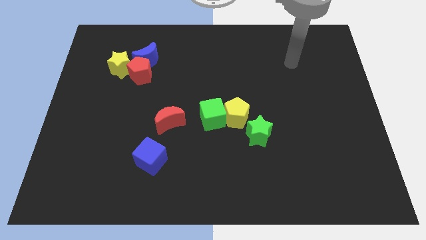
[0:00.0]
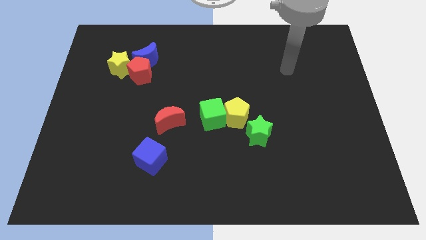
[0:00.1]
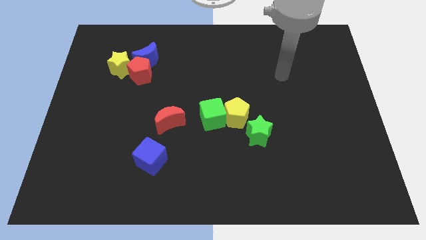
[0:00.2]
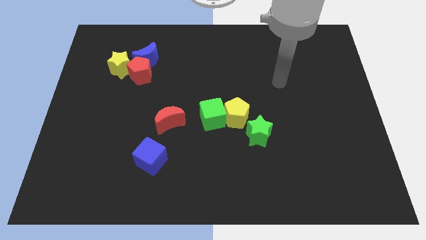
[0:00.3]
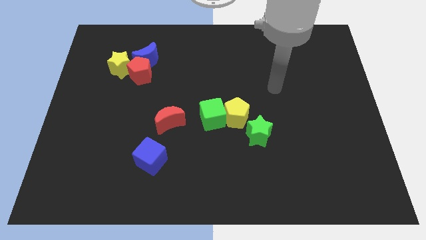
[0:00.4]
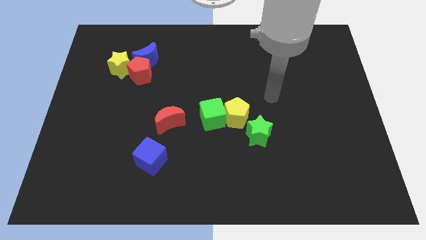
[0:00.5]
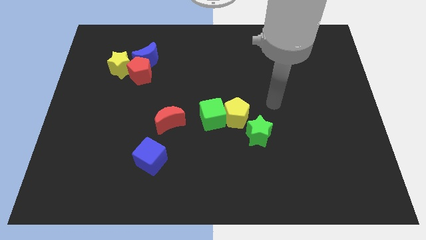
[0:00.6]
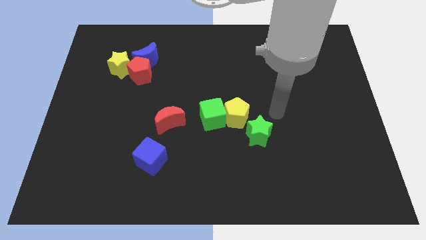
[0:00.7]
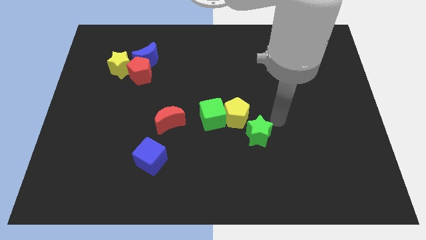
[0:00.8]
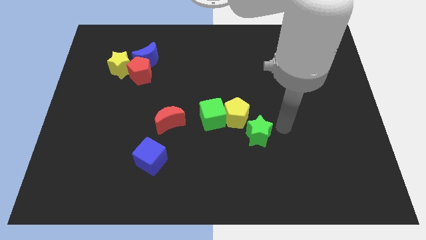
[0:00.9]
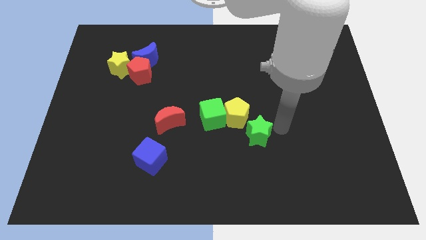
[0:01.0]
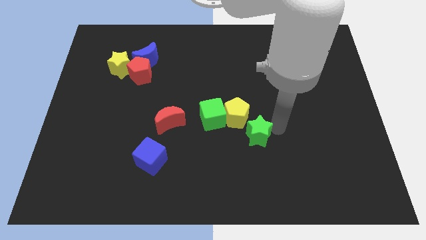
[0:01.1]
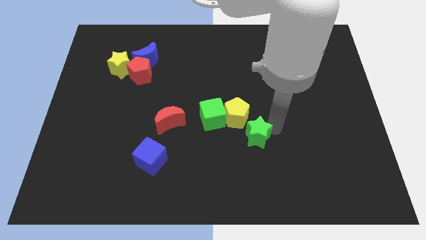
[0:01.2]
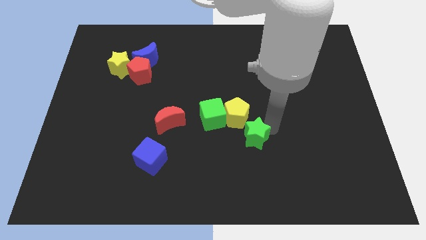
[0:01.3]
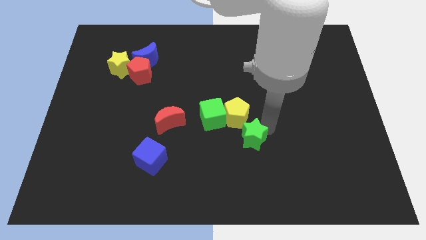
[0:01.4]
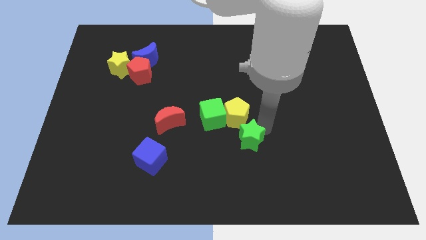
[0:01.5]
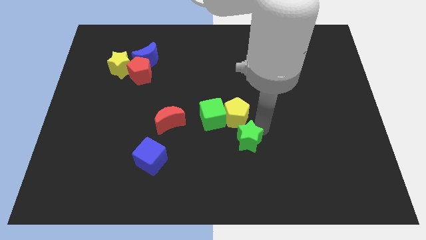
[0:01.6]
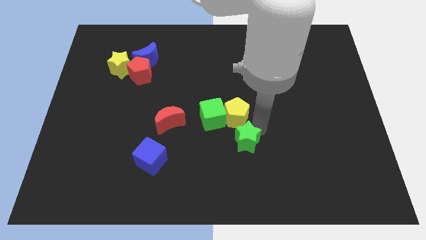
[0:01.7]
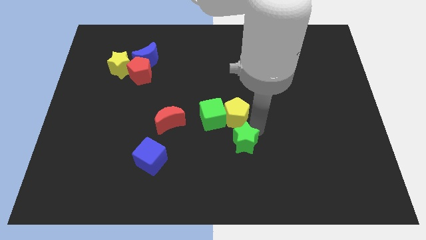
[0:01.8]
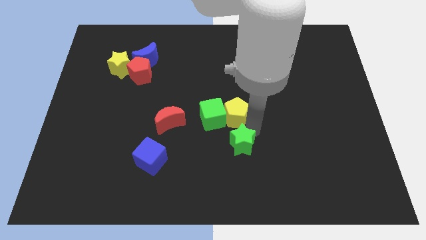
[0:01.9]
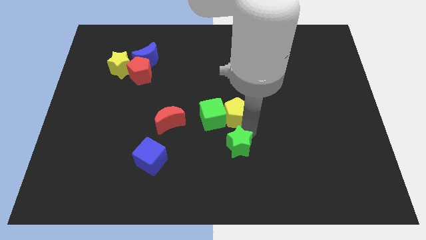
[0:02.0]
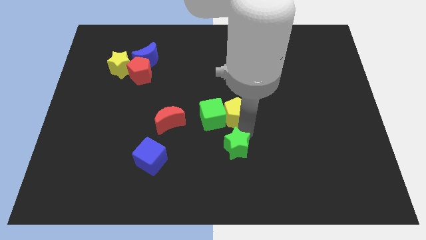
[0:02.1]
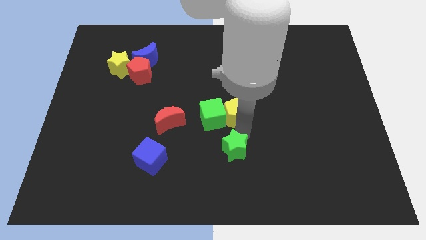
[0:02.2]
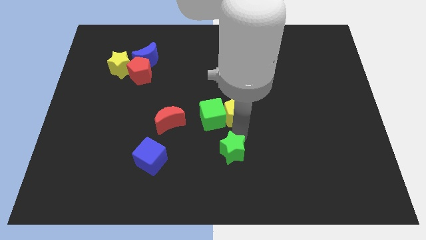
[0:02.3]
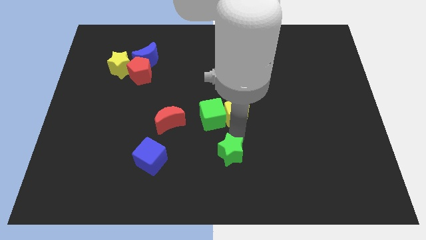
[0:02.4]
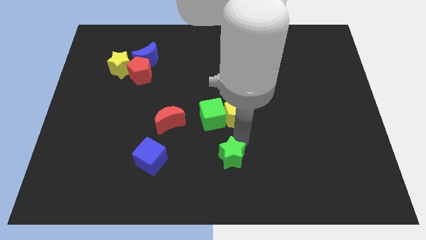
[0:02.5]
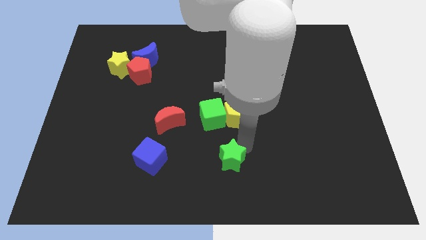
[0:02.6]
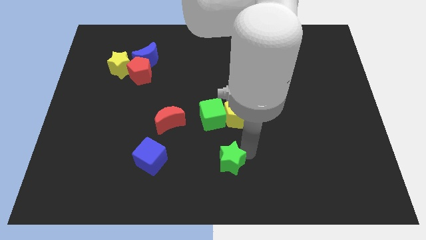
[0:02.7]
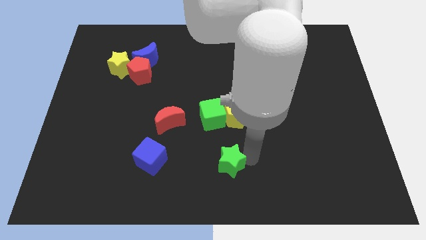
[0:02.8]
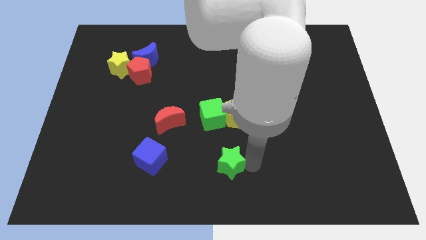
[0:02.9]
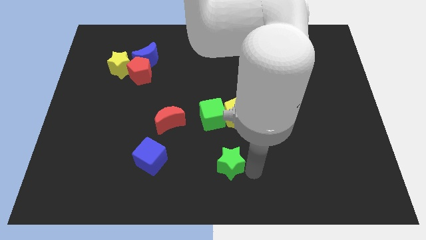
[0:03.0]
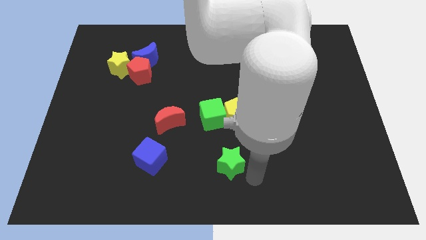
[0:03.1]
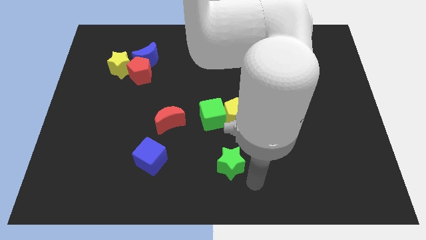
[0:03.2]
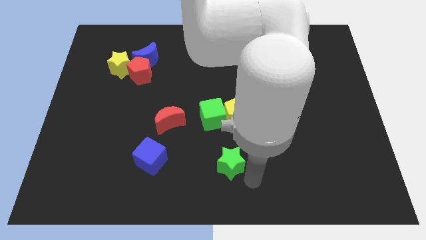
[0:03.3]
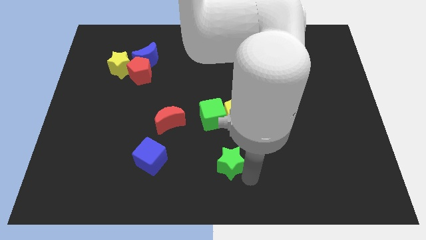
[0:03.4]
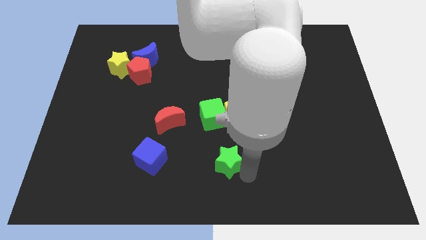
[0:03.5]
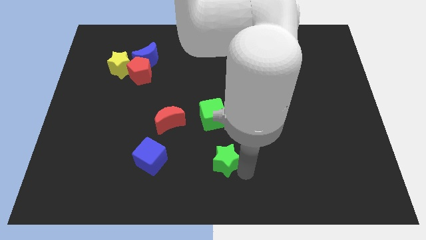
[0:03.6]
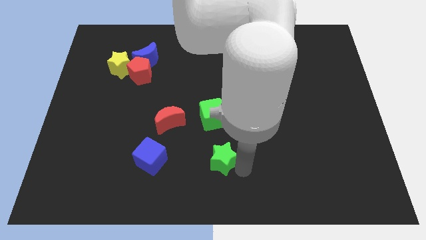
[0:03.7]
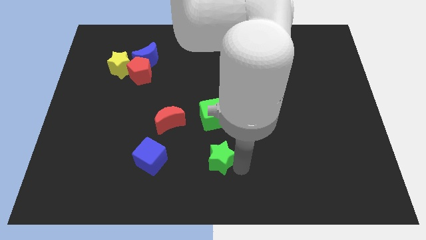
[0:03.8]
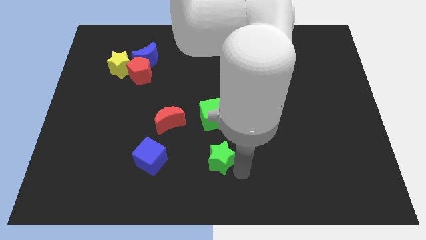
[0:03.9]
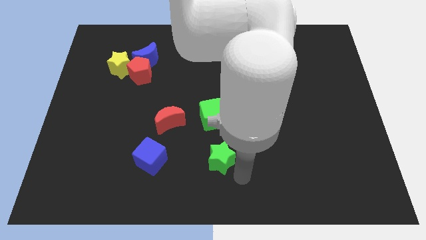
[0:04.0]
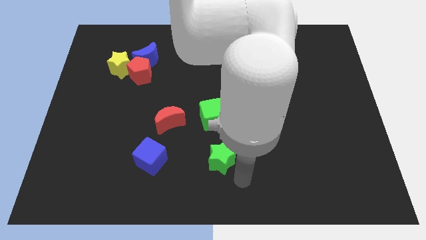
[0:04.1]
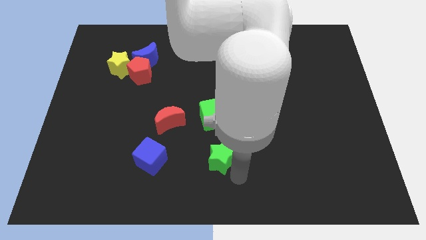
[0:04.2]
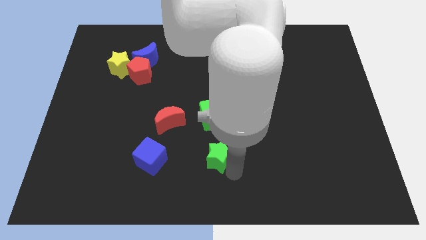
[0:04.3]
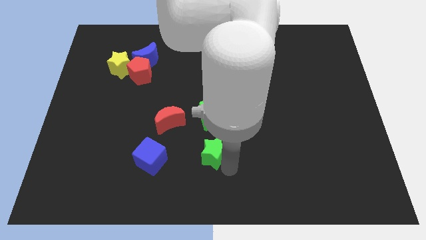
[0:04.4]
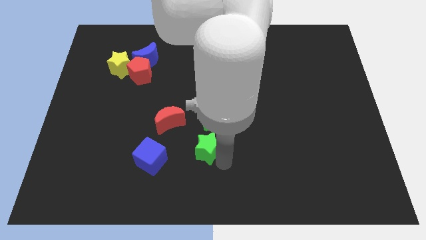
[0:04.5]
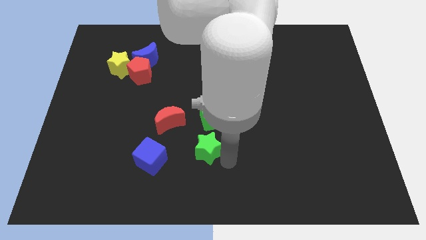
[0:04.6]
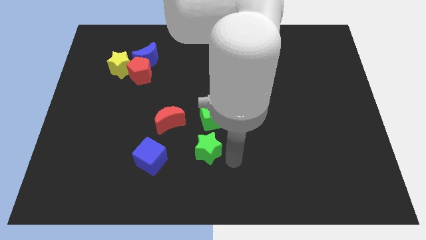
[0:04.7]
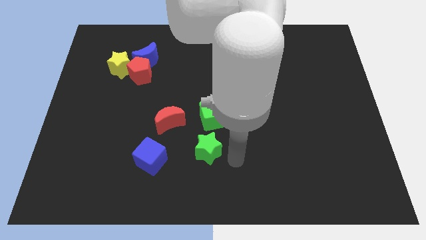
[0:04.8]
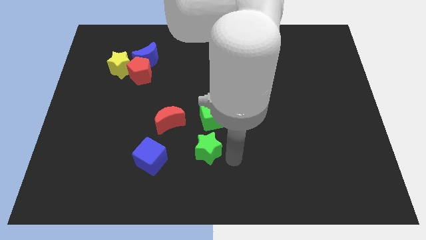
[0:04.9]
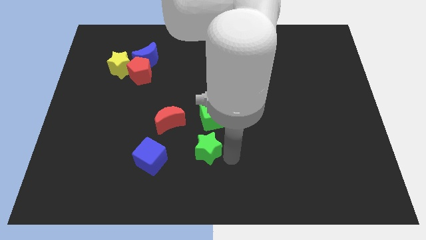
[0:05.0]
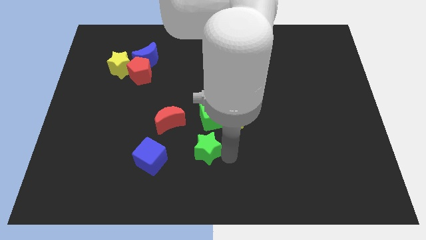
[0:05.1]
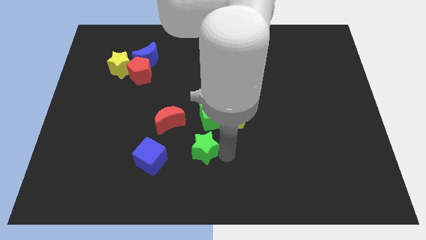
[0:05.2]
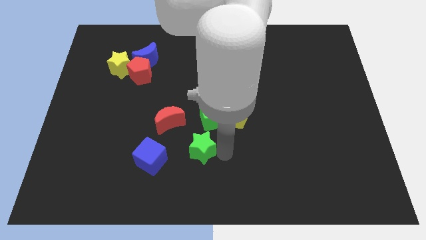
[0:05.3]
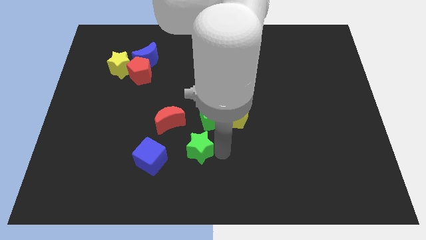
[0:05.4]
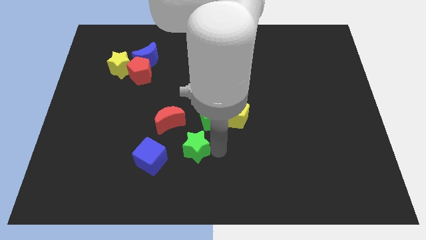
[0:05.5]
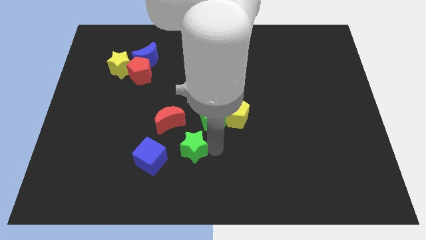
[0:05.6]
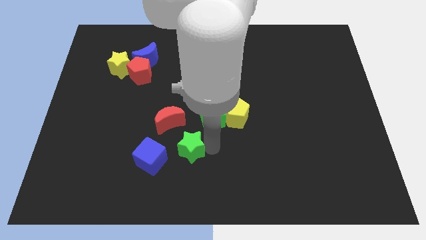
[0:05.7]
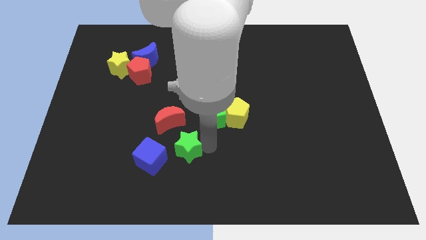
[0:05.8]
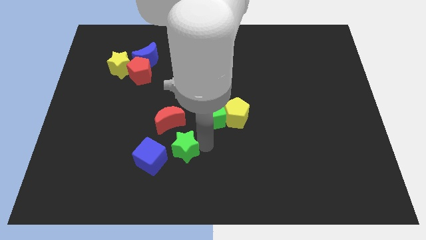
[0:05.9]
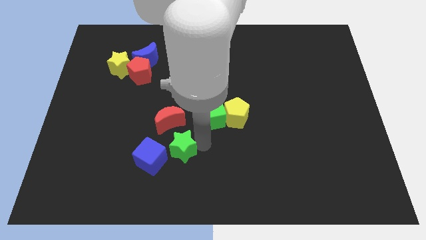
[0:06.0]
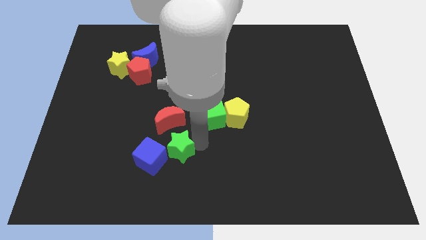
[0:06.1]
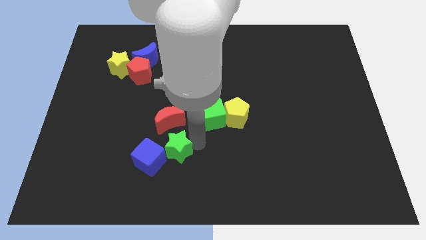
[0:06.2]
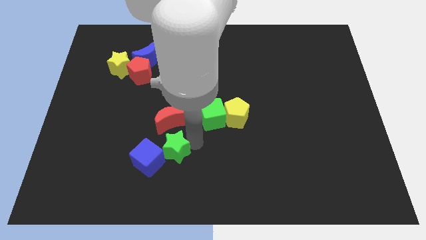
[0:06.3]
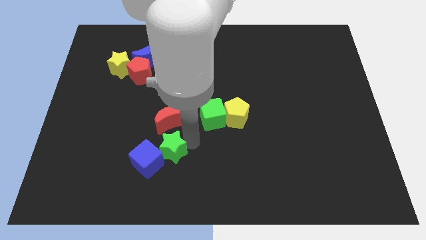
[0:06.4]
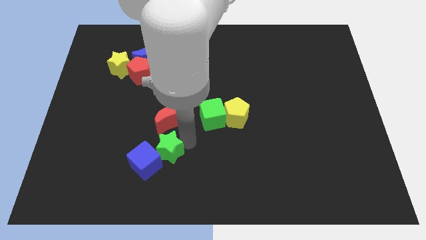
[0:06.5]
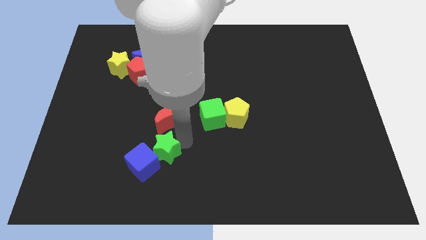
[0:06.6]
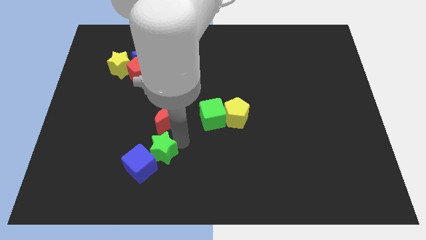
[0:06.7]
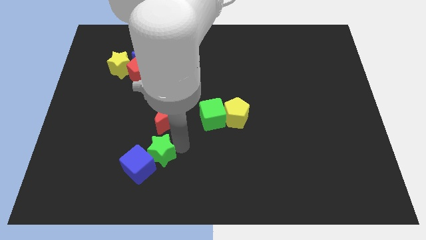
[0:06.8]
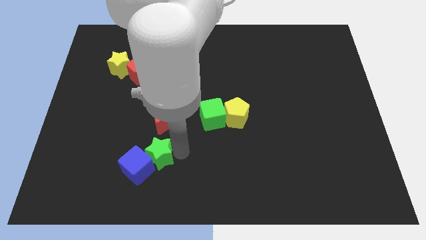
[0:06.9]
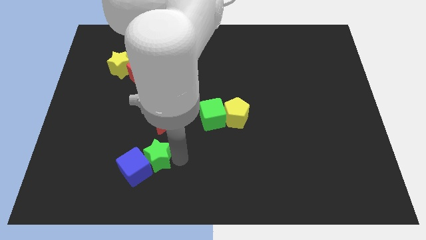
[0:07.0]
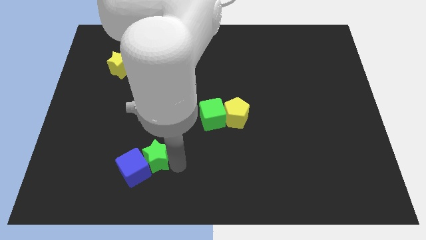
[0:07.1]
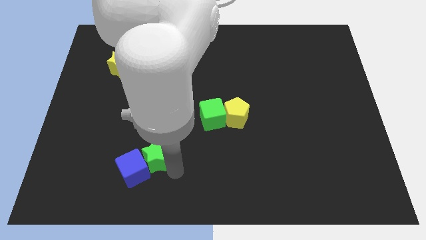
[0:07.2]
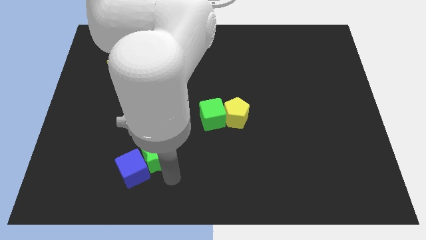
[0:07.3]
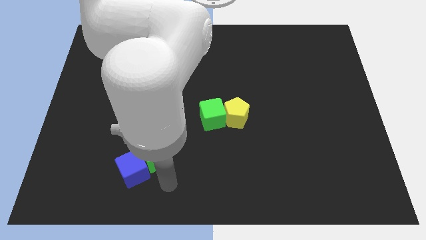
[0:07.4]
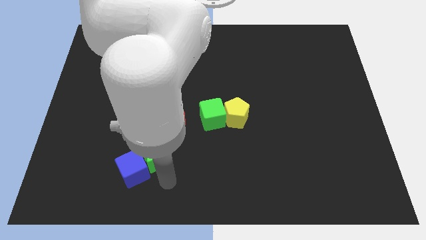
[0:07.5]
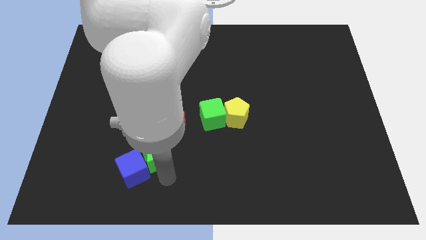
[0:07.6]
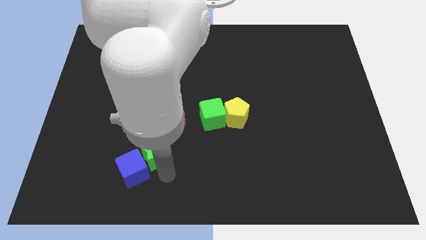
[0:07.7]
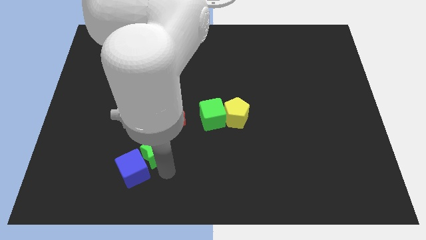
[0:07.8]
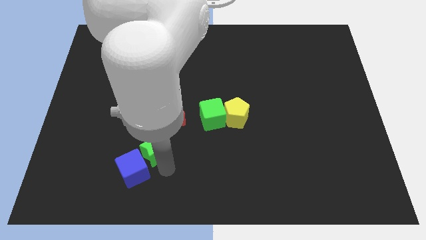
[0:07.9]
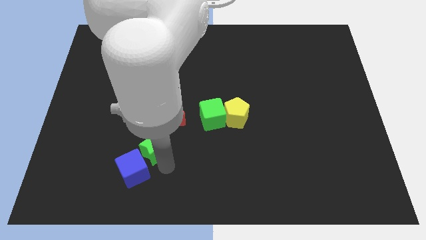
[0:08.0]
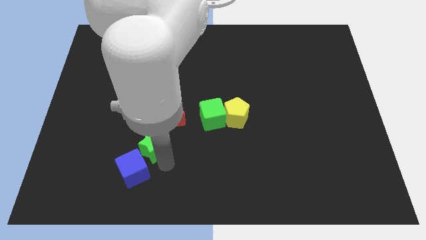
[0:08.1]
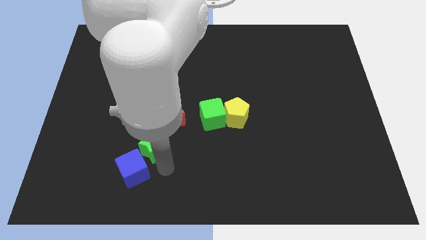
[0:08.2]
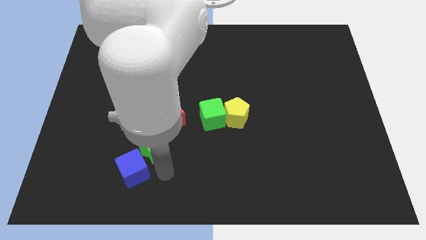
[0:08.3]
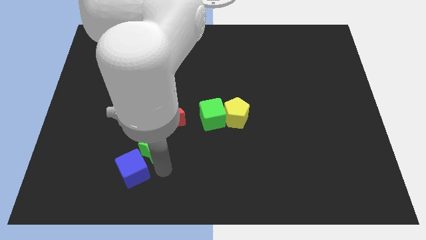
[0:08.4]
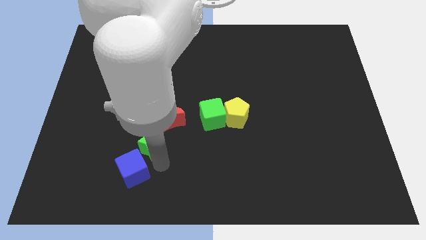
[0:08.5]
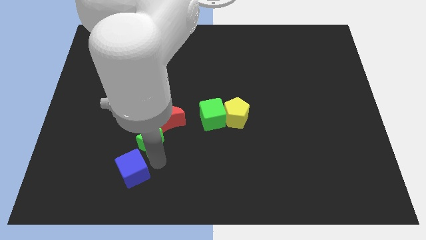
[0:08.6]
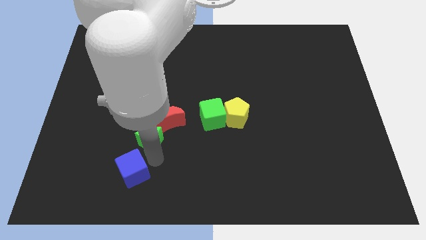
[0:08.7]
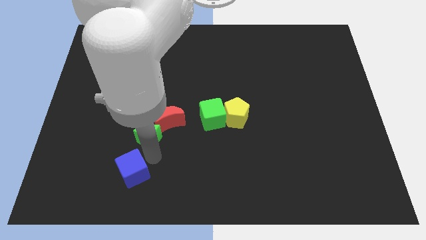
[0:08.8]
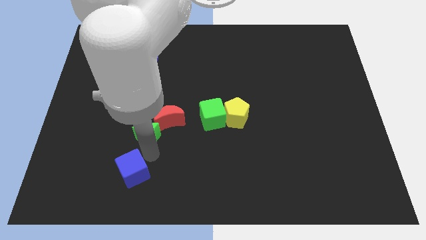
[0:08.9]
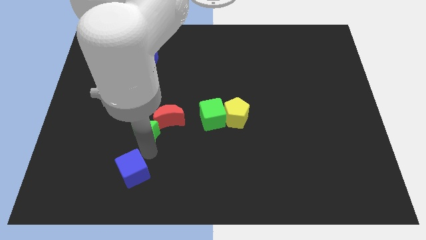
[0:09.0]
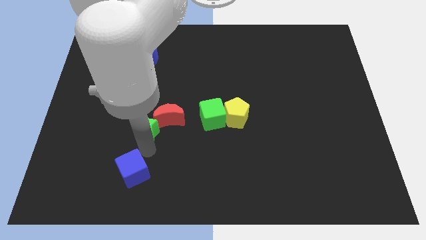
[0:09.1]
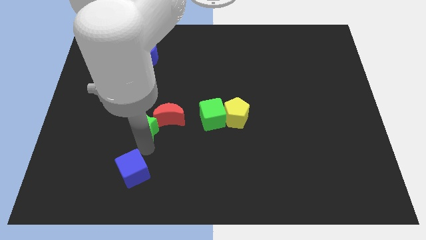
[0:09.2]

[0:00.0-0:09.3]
push the green star to the left side of the green cube
